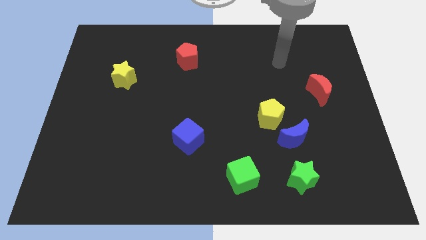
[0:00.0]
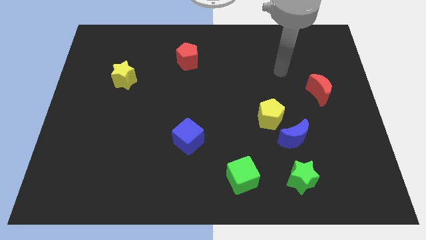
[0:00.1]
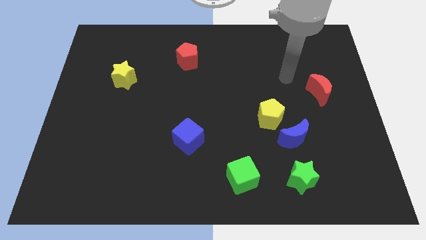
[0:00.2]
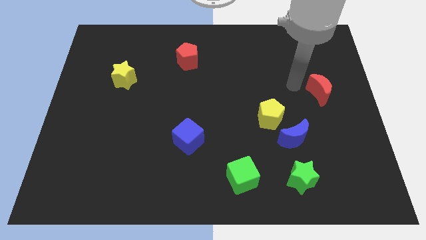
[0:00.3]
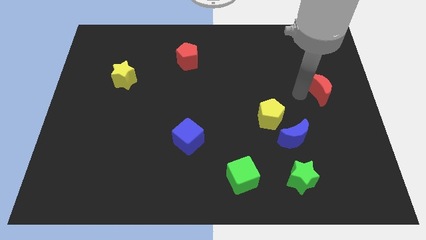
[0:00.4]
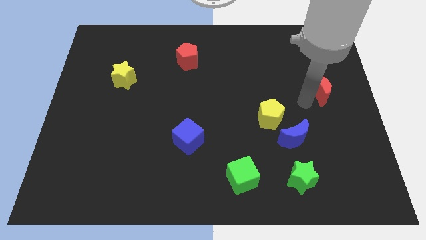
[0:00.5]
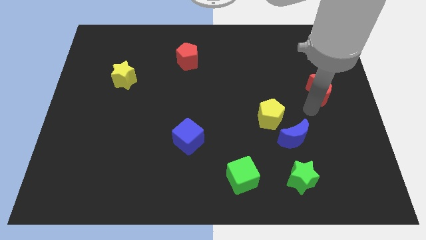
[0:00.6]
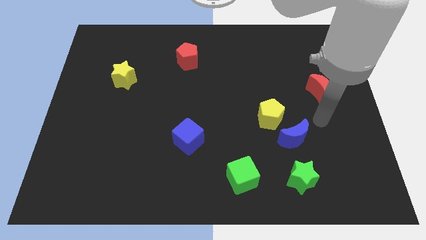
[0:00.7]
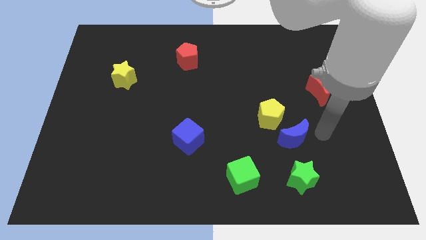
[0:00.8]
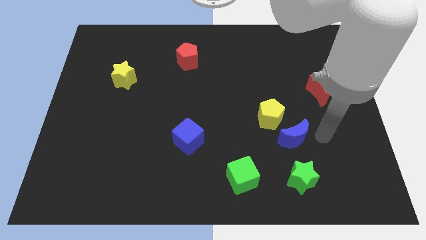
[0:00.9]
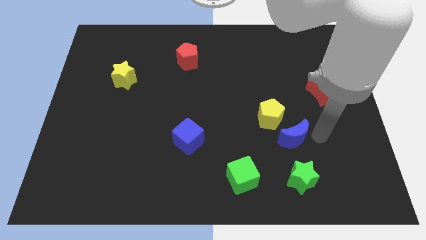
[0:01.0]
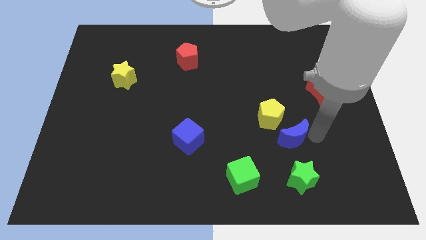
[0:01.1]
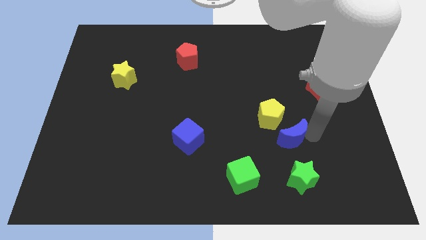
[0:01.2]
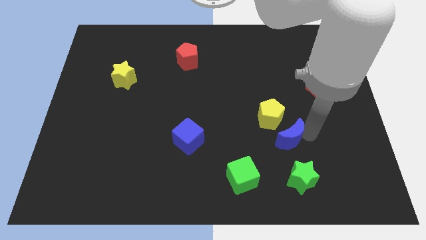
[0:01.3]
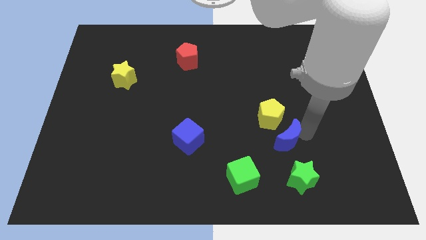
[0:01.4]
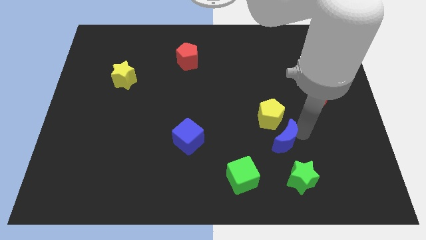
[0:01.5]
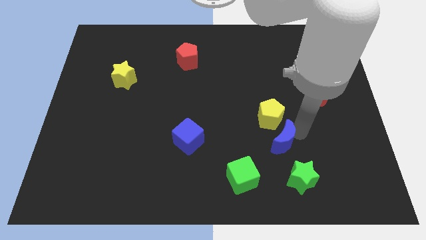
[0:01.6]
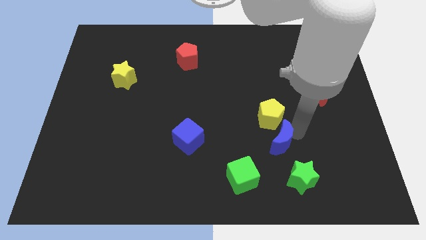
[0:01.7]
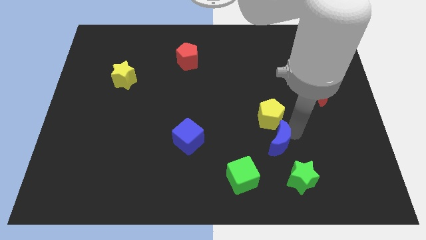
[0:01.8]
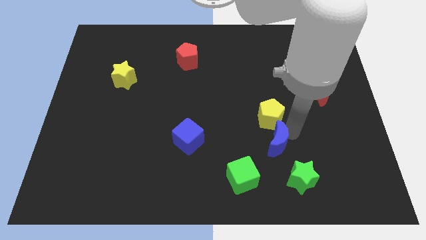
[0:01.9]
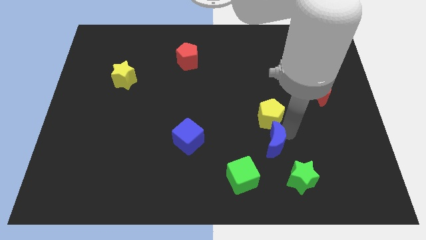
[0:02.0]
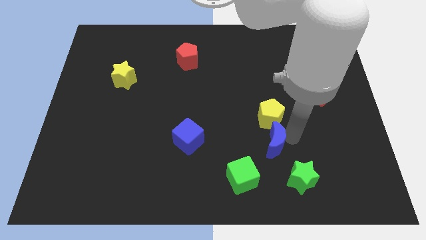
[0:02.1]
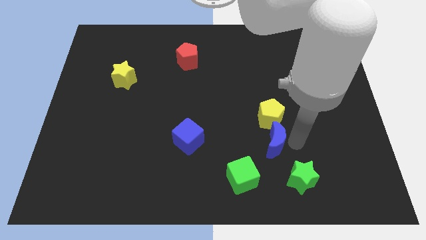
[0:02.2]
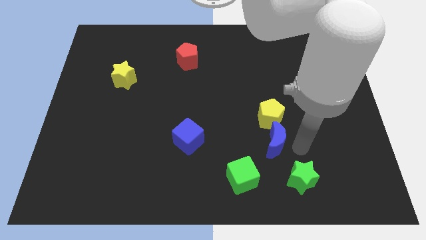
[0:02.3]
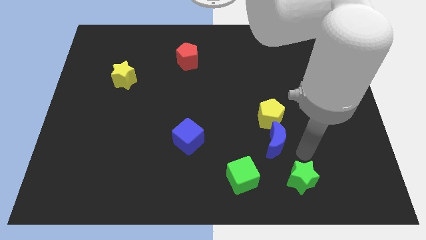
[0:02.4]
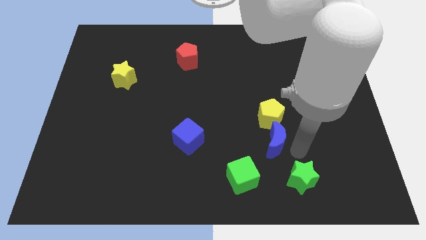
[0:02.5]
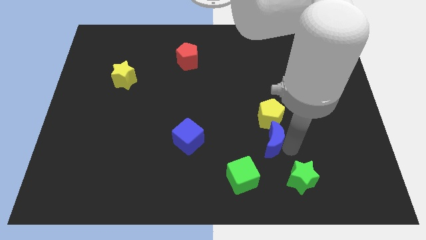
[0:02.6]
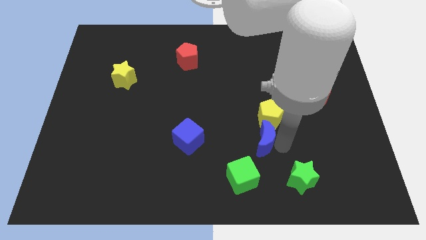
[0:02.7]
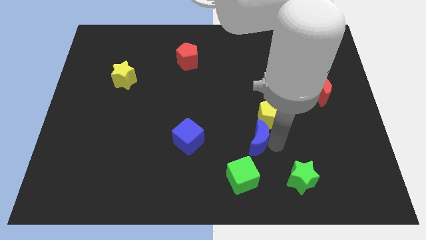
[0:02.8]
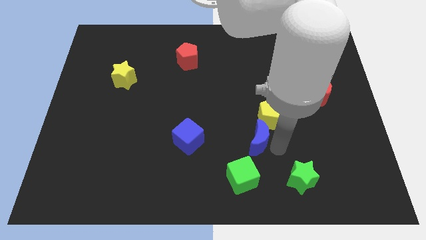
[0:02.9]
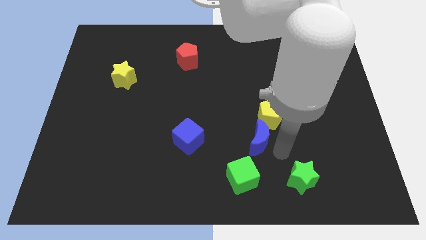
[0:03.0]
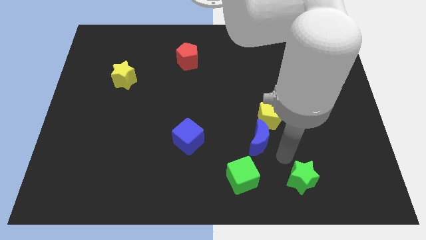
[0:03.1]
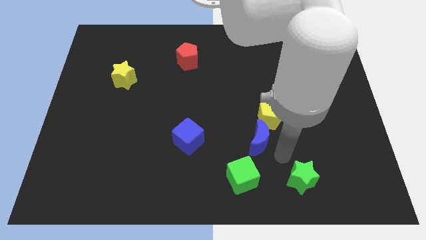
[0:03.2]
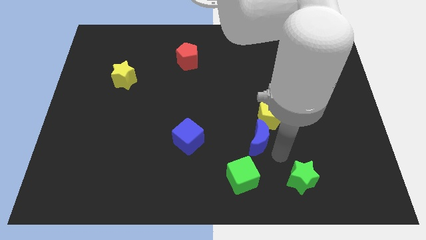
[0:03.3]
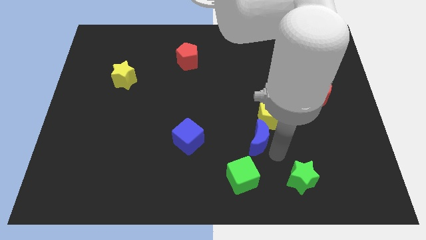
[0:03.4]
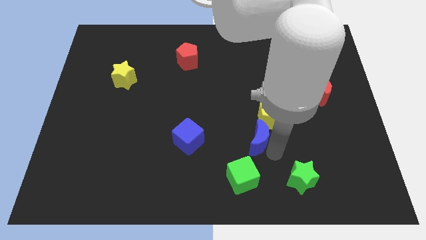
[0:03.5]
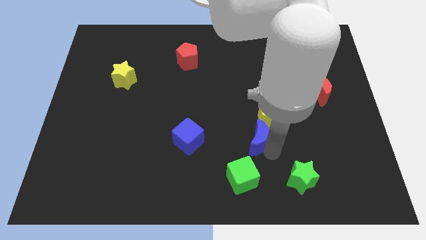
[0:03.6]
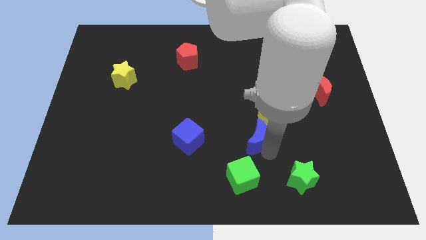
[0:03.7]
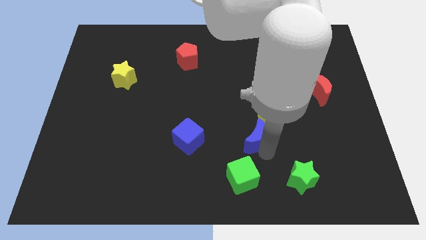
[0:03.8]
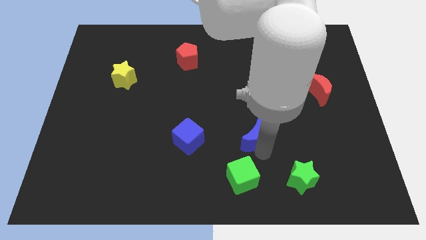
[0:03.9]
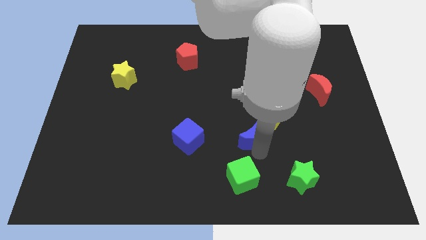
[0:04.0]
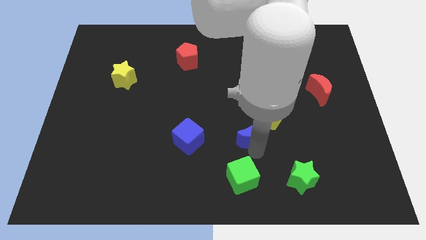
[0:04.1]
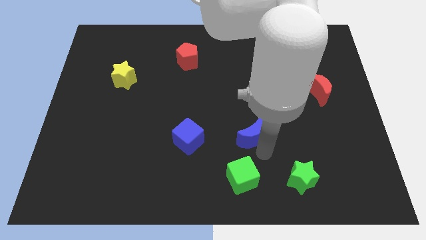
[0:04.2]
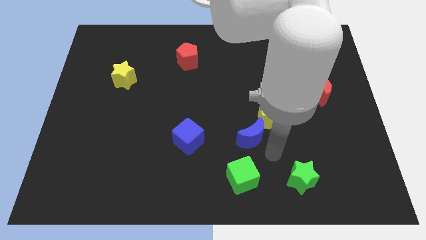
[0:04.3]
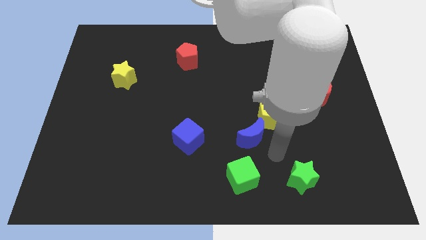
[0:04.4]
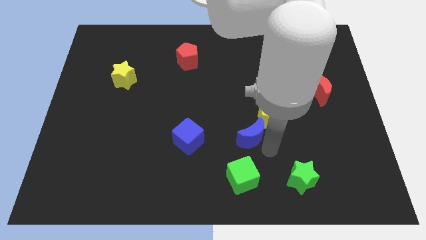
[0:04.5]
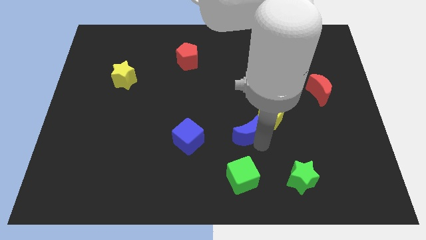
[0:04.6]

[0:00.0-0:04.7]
push the blue moon to the middle of the board

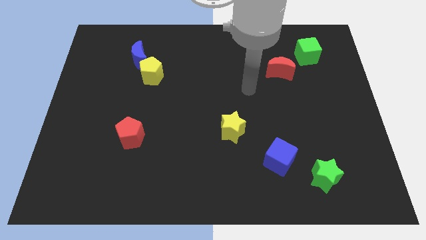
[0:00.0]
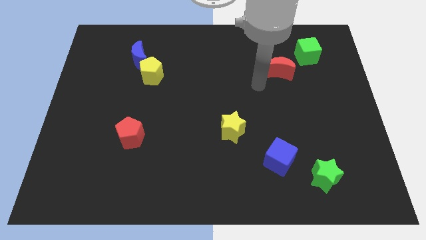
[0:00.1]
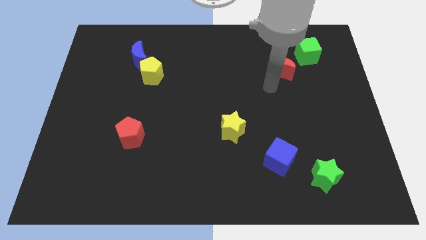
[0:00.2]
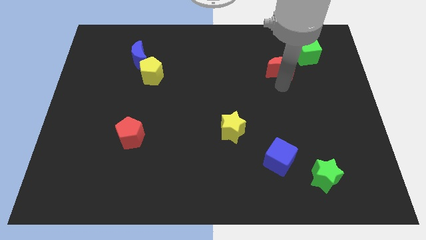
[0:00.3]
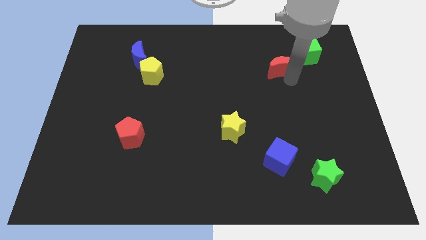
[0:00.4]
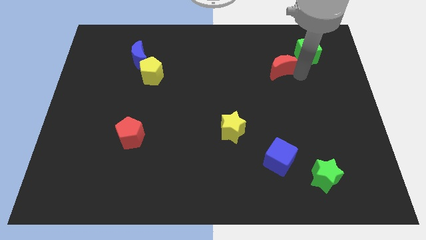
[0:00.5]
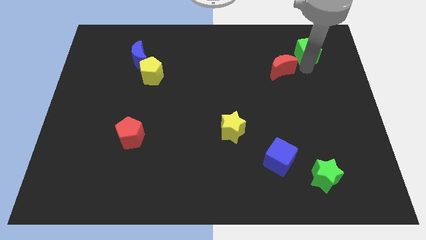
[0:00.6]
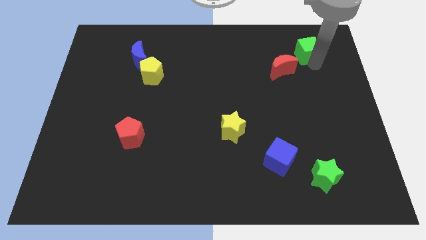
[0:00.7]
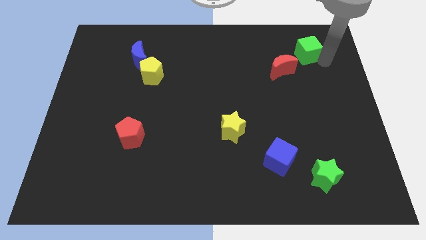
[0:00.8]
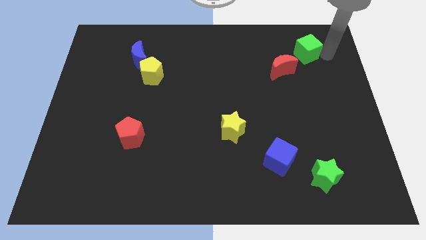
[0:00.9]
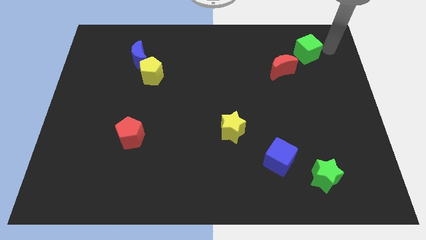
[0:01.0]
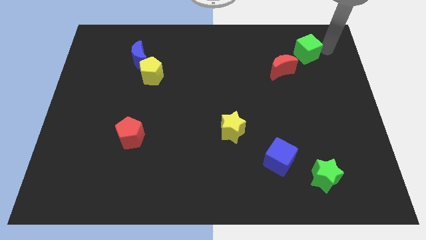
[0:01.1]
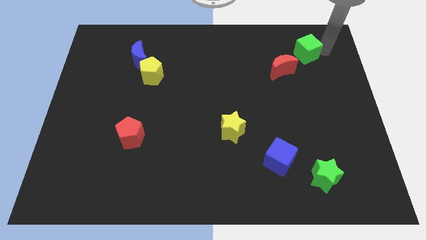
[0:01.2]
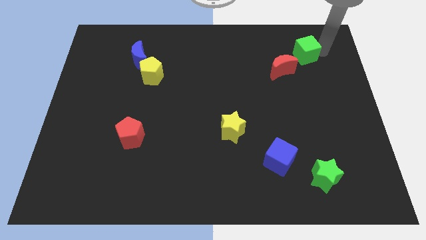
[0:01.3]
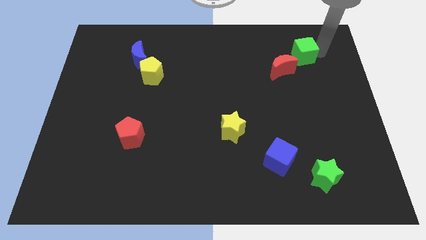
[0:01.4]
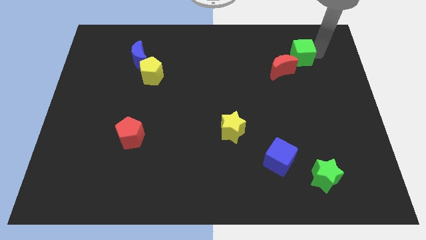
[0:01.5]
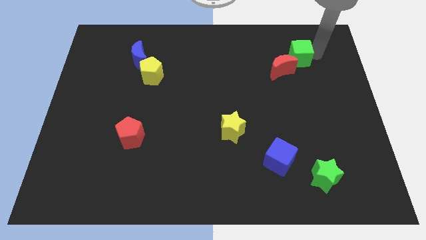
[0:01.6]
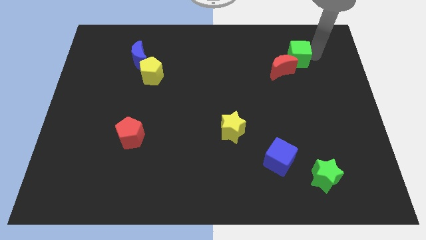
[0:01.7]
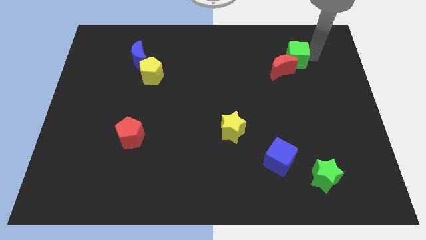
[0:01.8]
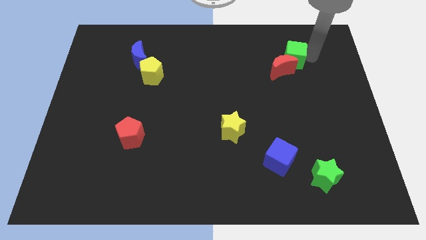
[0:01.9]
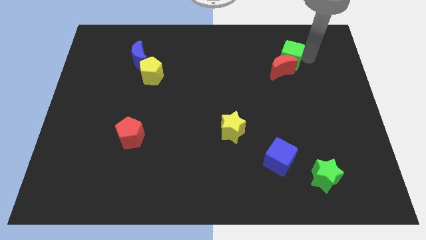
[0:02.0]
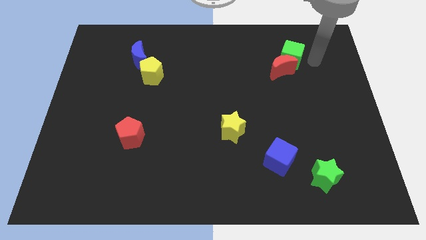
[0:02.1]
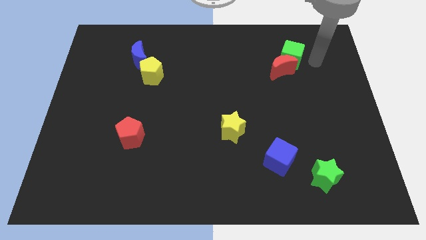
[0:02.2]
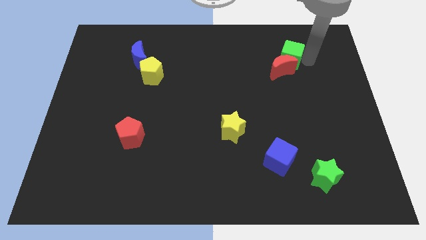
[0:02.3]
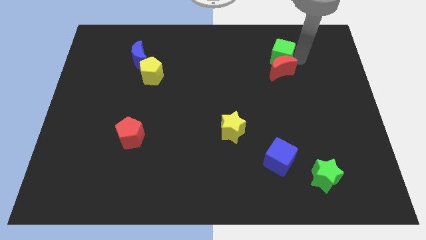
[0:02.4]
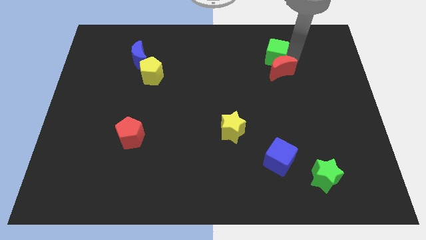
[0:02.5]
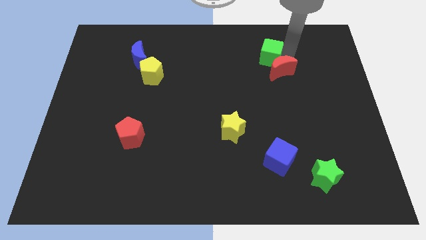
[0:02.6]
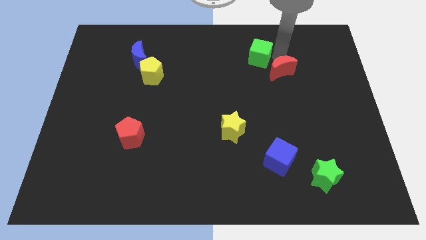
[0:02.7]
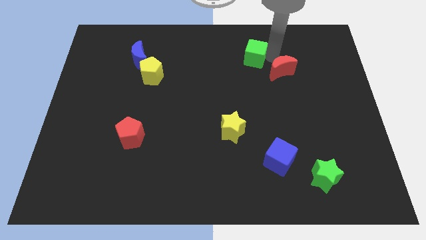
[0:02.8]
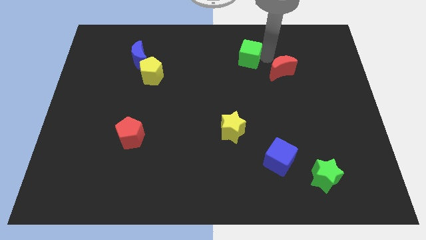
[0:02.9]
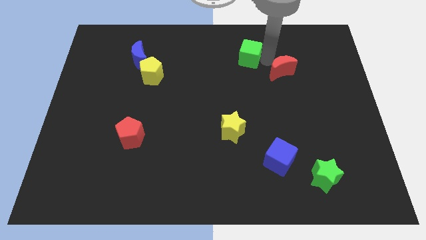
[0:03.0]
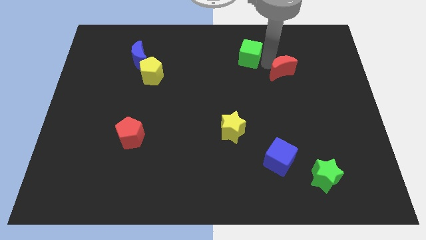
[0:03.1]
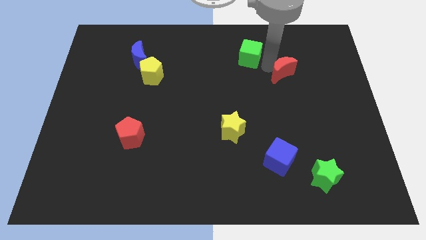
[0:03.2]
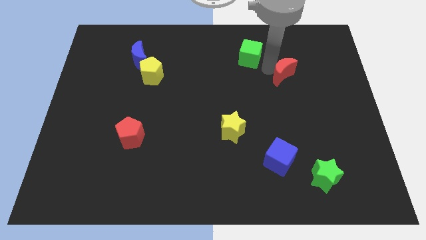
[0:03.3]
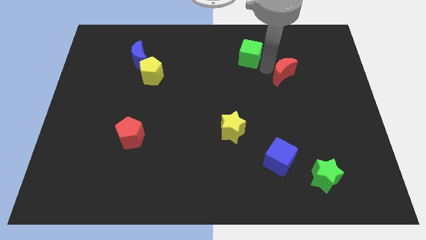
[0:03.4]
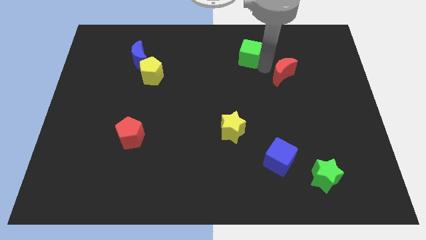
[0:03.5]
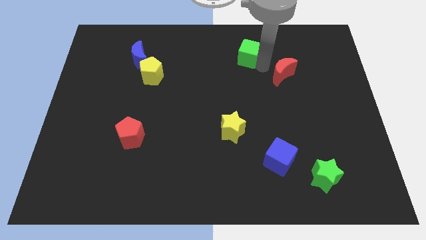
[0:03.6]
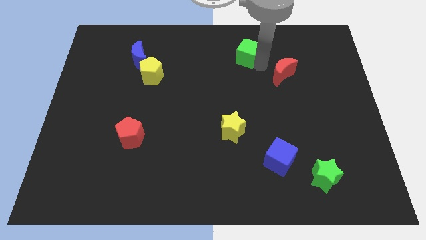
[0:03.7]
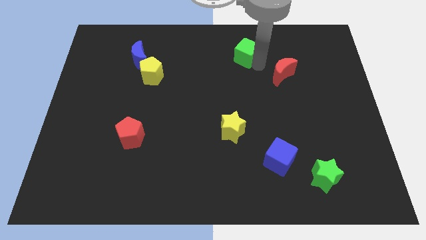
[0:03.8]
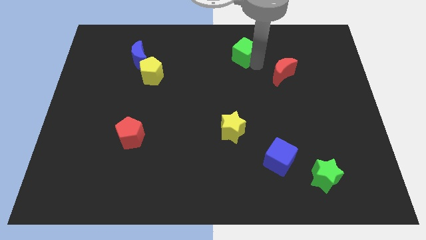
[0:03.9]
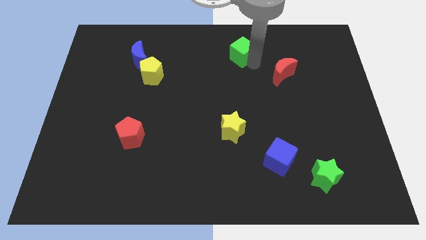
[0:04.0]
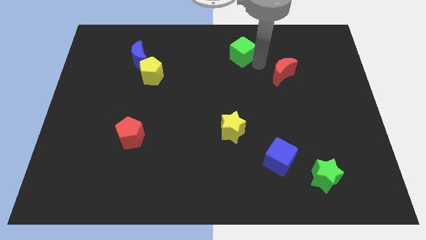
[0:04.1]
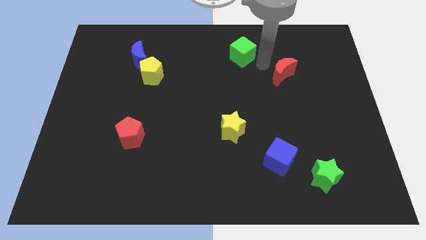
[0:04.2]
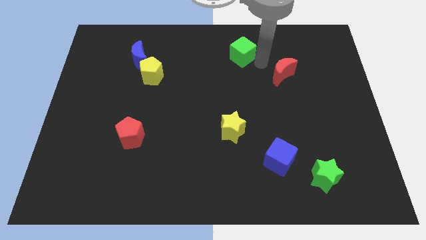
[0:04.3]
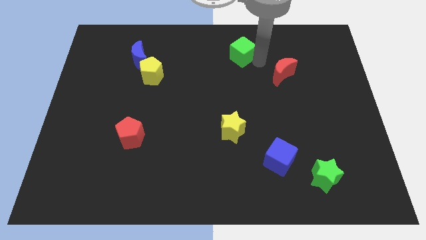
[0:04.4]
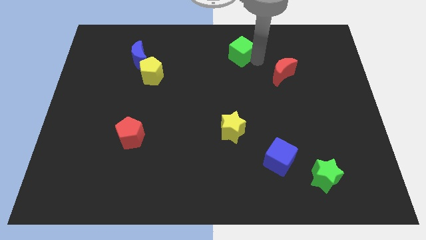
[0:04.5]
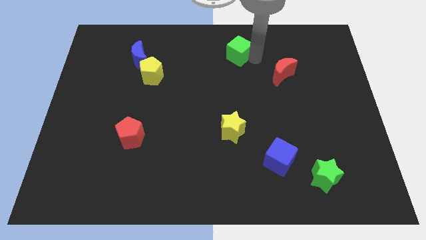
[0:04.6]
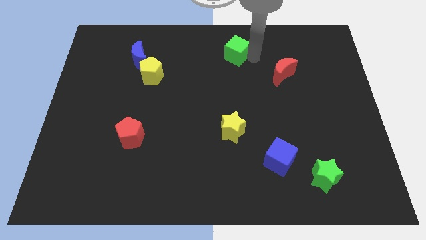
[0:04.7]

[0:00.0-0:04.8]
push the green cube to the top
